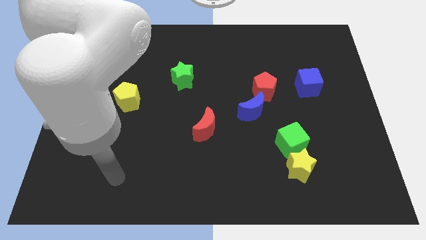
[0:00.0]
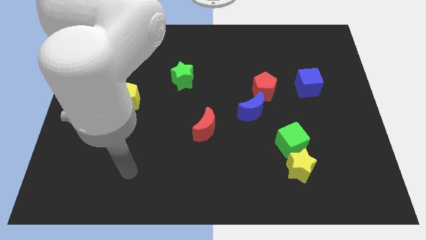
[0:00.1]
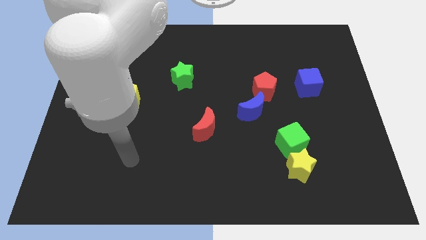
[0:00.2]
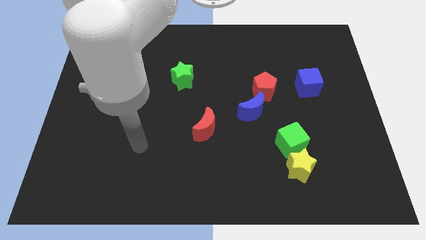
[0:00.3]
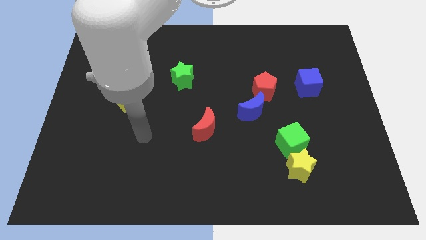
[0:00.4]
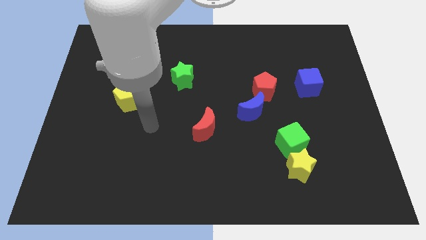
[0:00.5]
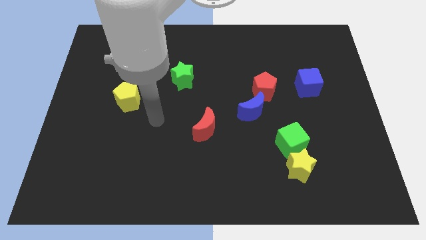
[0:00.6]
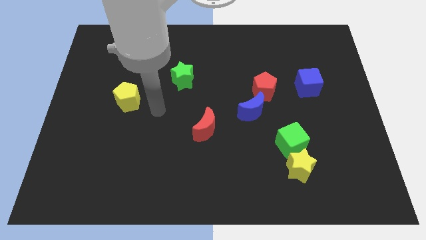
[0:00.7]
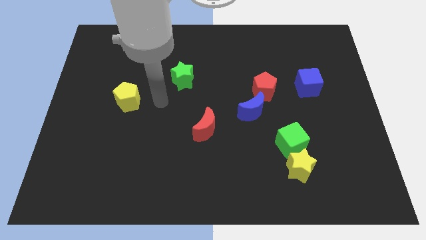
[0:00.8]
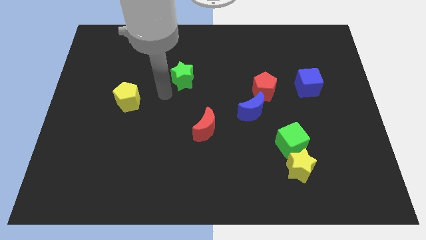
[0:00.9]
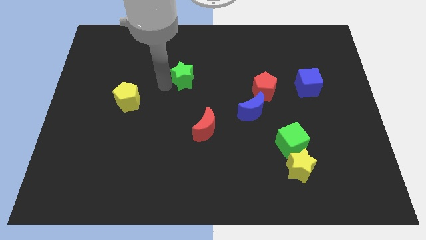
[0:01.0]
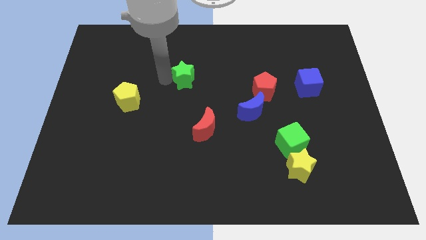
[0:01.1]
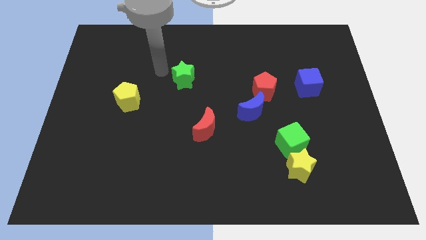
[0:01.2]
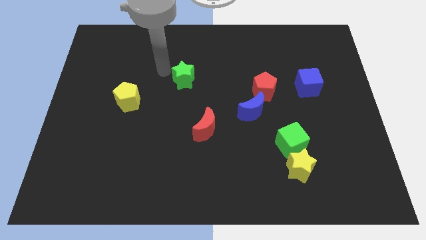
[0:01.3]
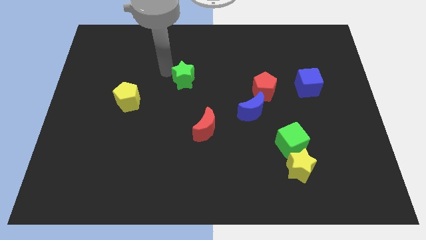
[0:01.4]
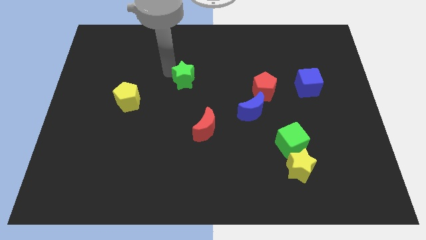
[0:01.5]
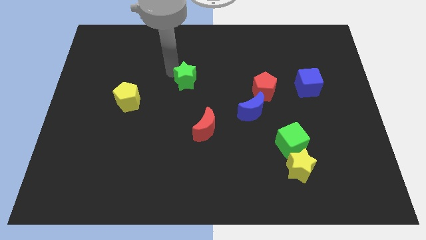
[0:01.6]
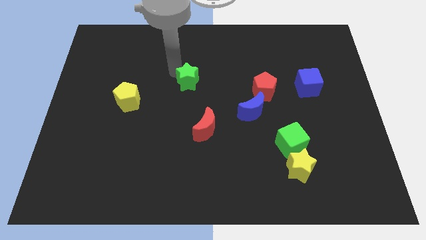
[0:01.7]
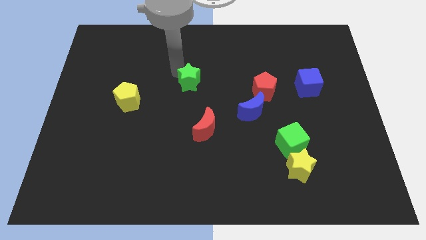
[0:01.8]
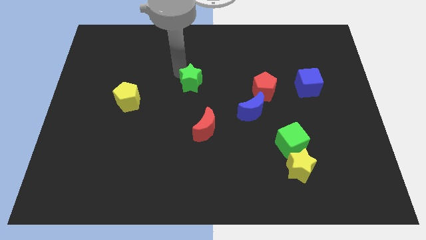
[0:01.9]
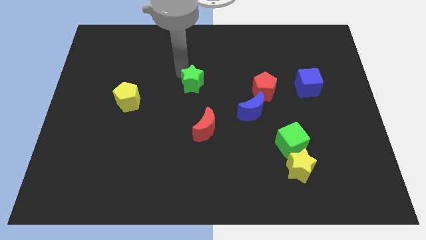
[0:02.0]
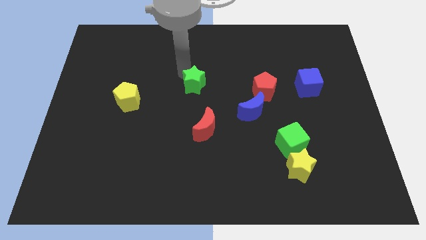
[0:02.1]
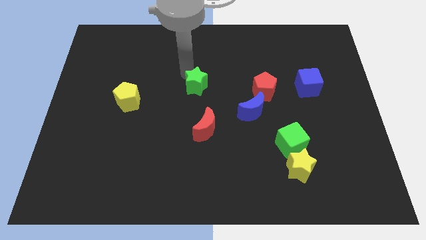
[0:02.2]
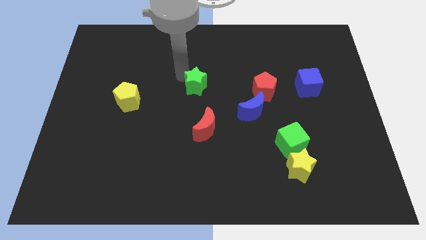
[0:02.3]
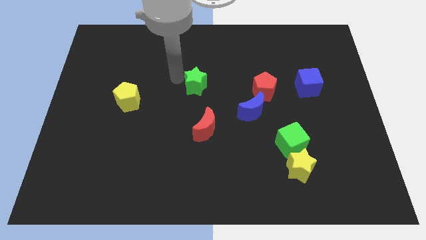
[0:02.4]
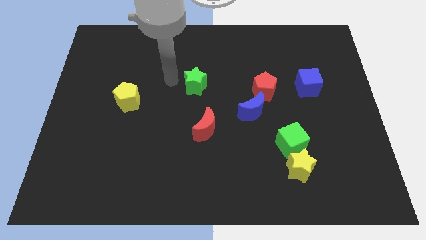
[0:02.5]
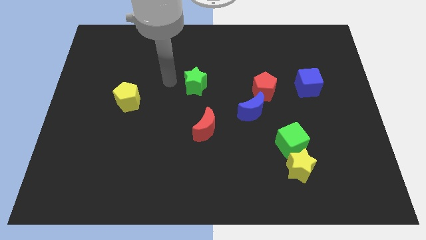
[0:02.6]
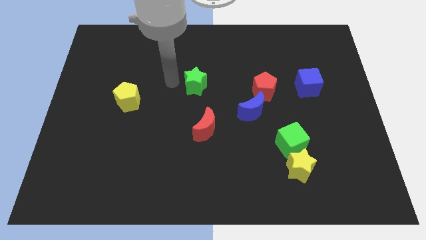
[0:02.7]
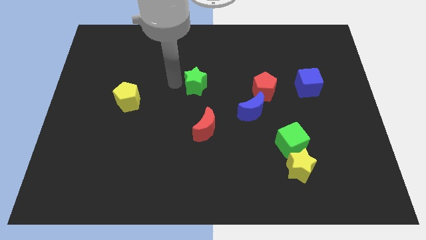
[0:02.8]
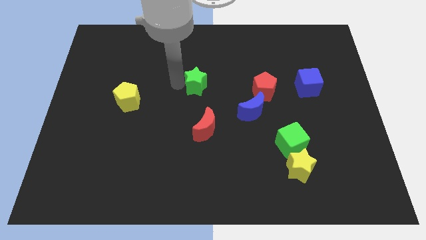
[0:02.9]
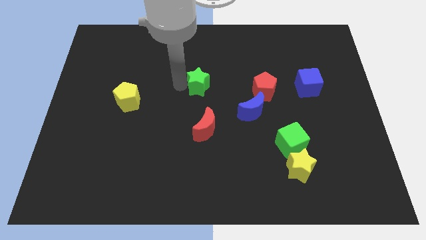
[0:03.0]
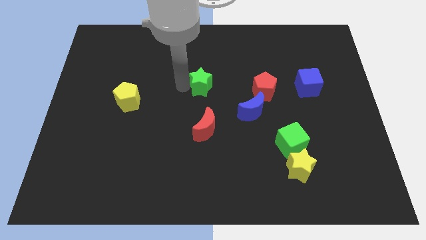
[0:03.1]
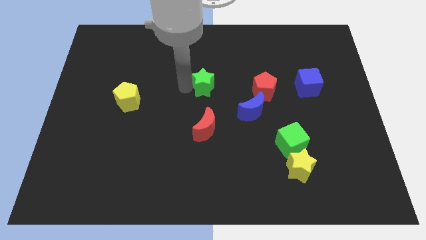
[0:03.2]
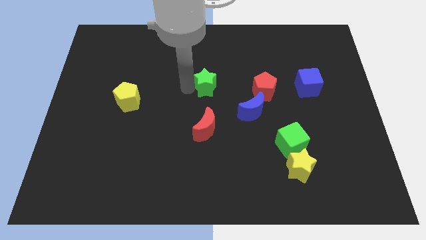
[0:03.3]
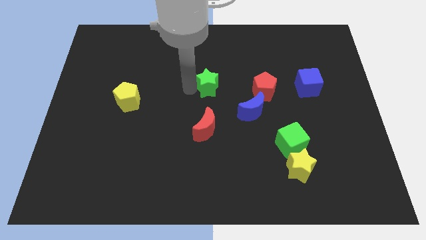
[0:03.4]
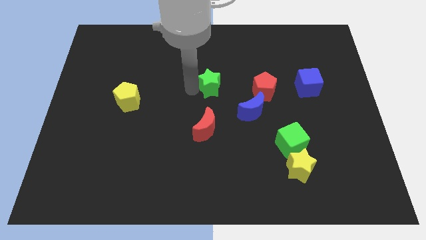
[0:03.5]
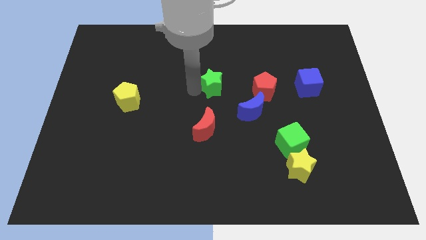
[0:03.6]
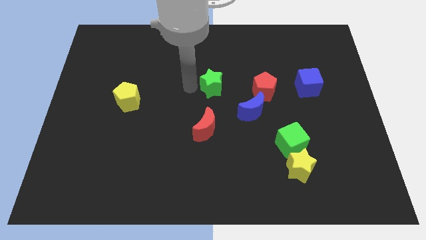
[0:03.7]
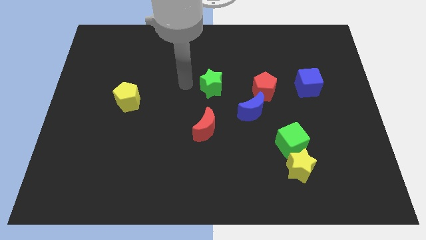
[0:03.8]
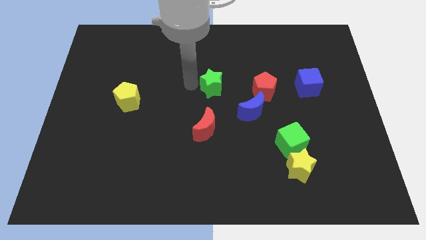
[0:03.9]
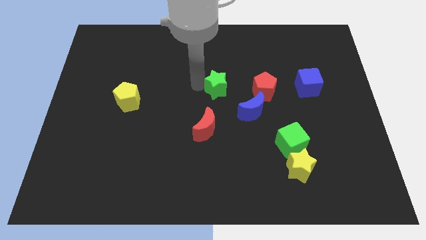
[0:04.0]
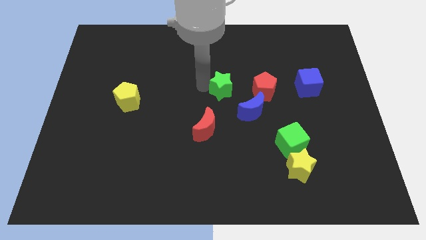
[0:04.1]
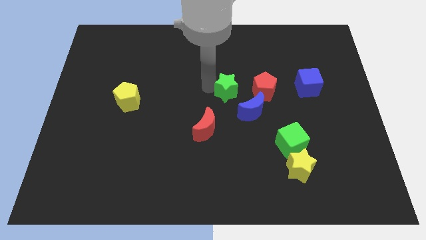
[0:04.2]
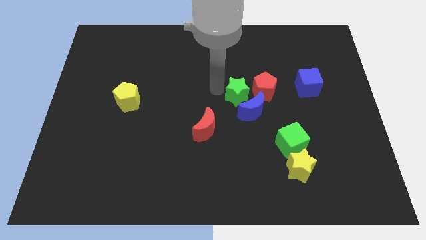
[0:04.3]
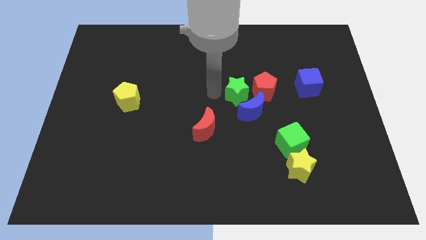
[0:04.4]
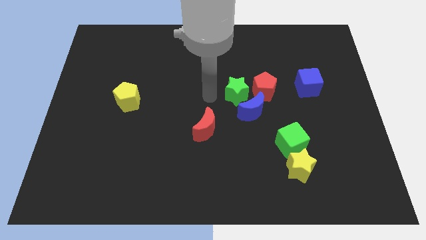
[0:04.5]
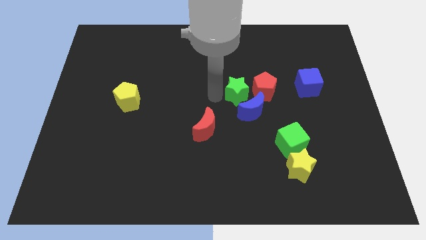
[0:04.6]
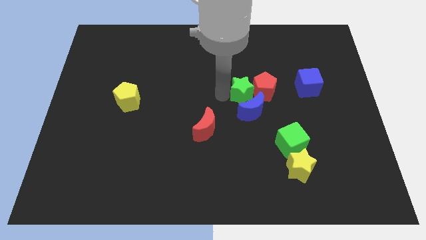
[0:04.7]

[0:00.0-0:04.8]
put the green star close to the red pentagon

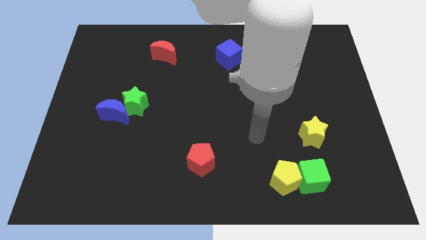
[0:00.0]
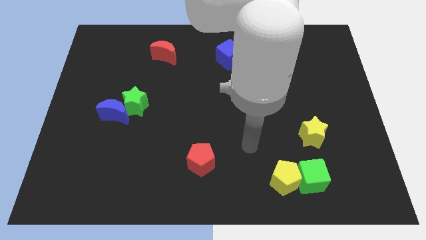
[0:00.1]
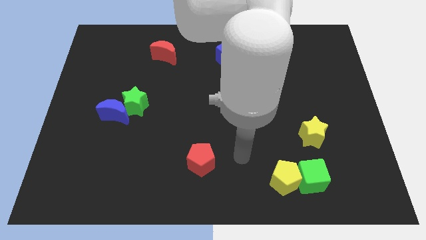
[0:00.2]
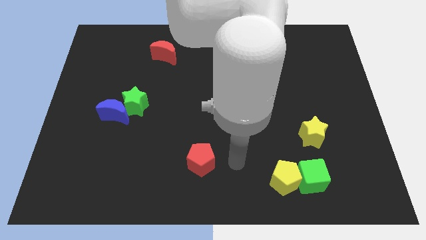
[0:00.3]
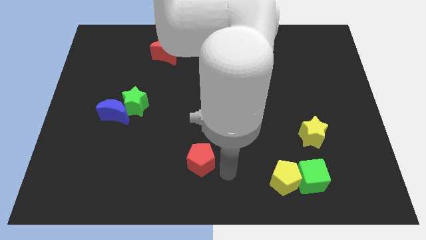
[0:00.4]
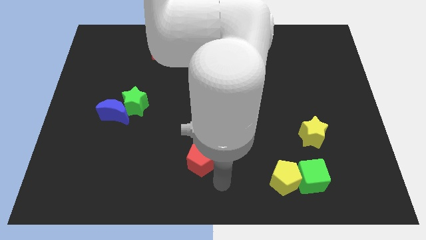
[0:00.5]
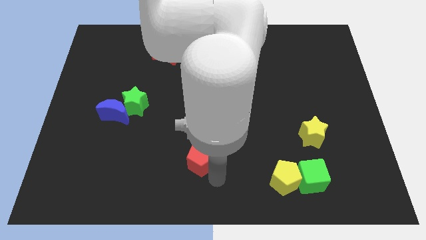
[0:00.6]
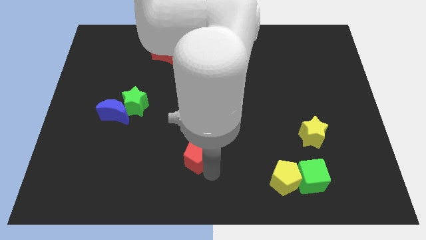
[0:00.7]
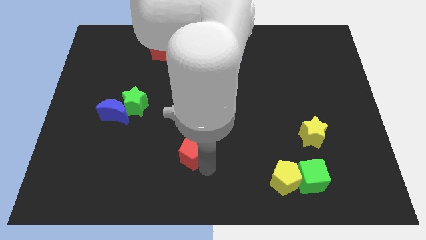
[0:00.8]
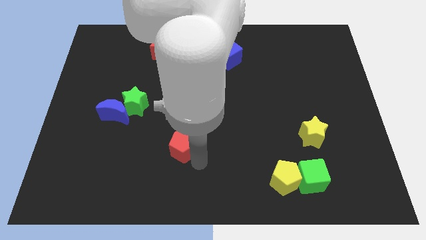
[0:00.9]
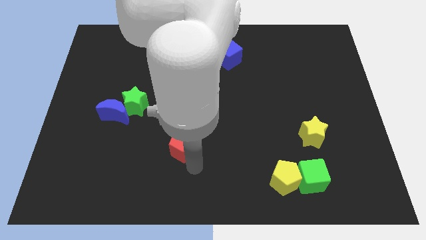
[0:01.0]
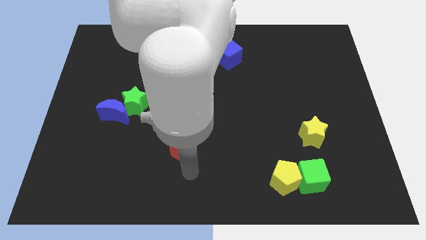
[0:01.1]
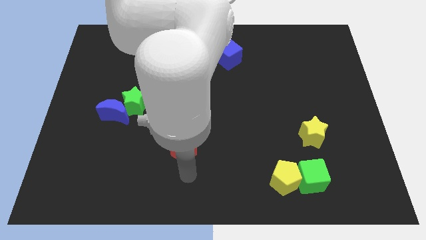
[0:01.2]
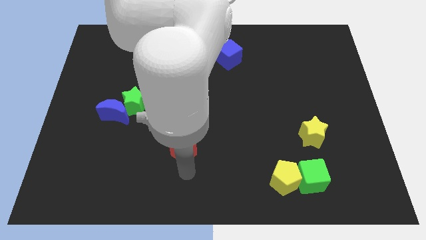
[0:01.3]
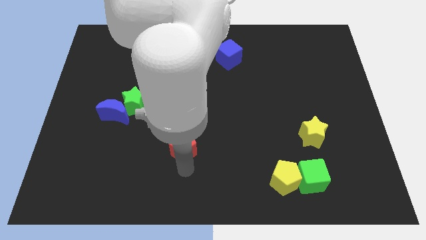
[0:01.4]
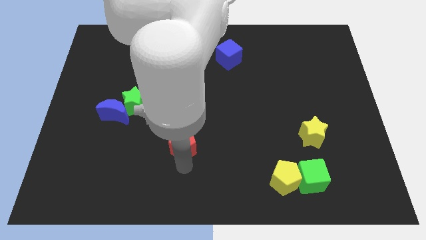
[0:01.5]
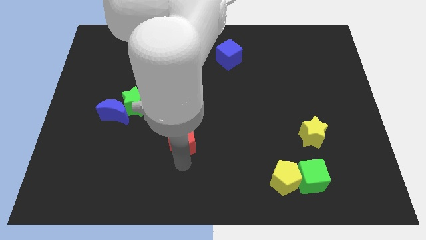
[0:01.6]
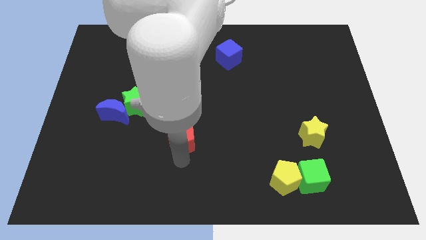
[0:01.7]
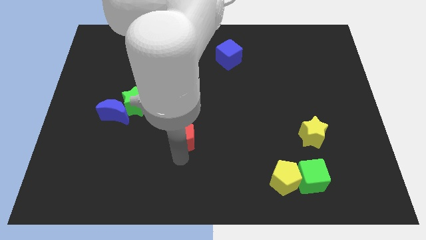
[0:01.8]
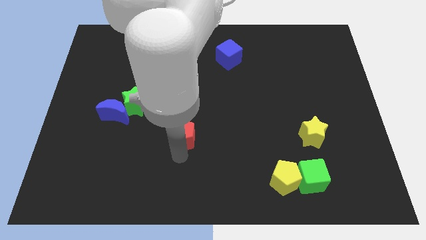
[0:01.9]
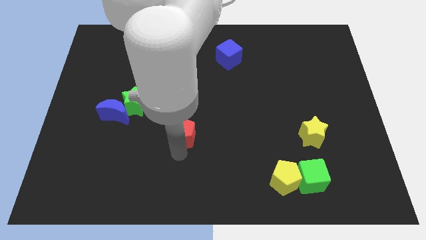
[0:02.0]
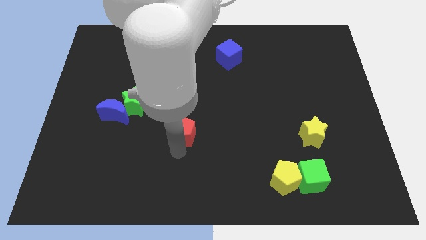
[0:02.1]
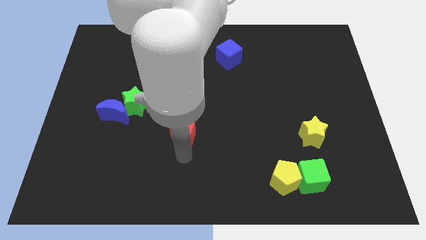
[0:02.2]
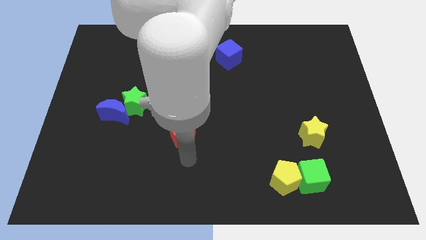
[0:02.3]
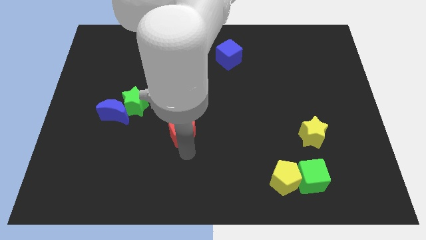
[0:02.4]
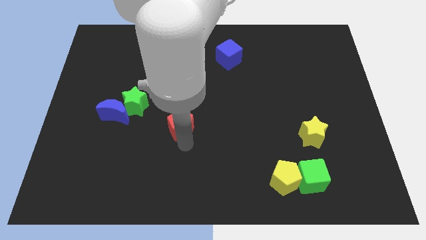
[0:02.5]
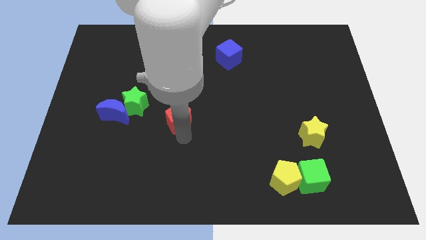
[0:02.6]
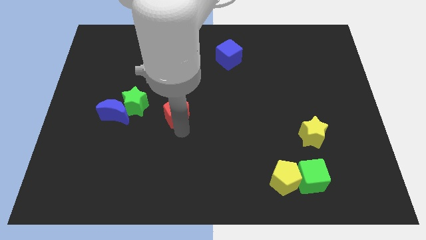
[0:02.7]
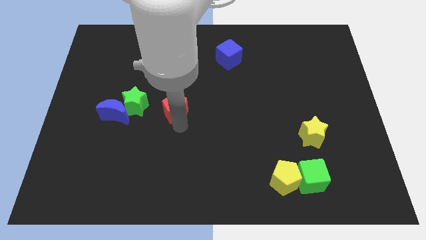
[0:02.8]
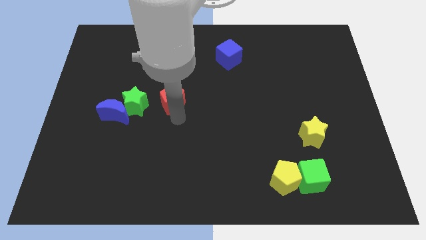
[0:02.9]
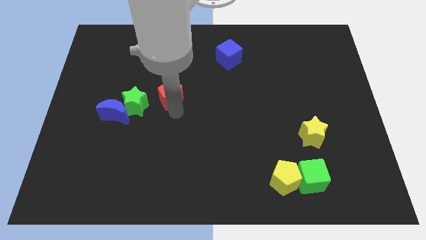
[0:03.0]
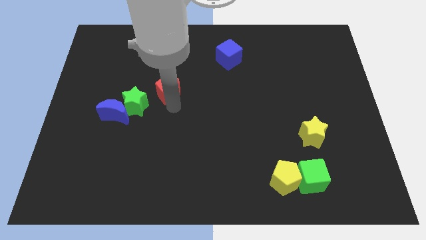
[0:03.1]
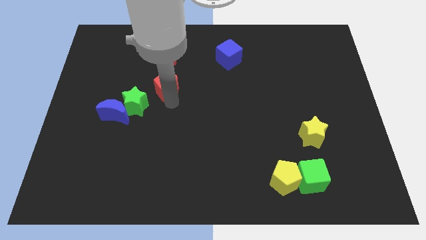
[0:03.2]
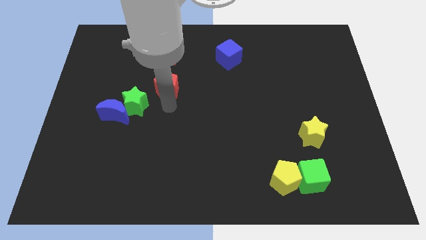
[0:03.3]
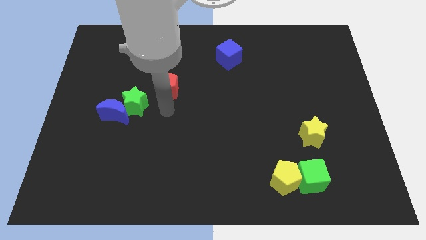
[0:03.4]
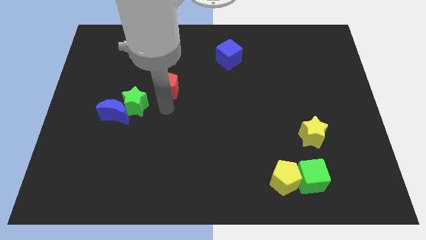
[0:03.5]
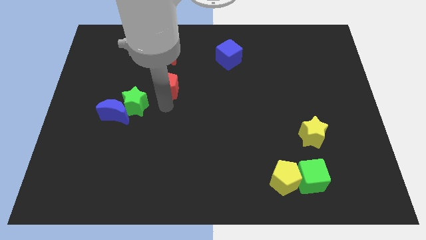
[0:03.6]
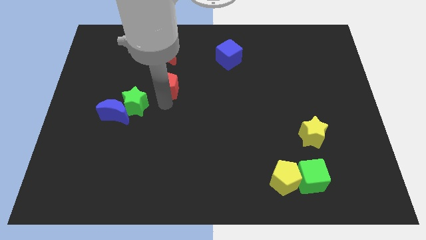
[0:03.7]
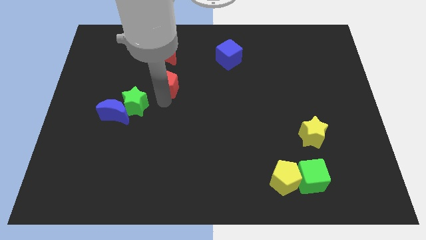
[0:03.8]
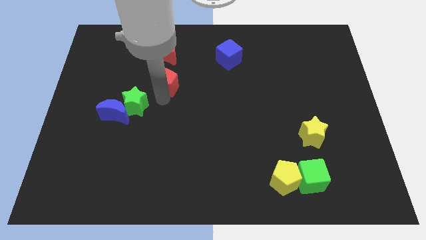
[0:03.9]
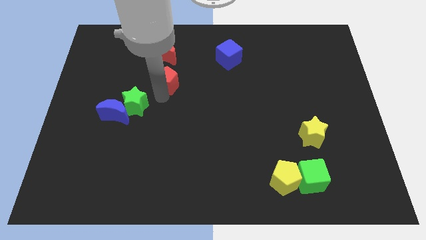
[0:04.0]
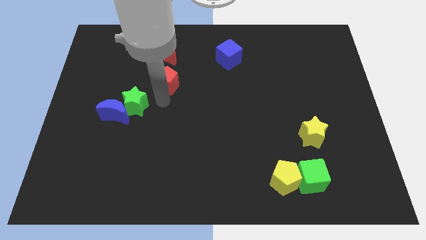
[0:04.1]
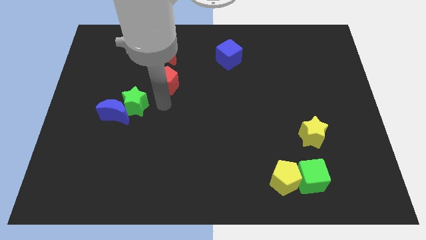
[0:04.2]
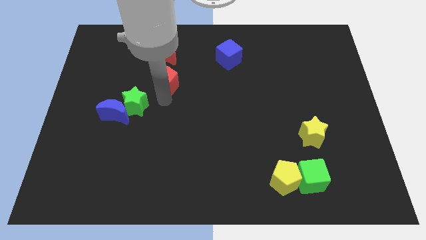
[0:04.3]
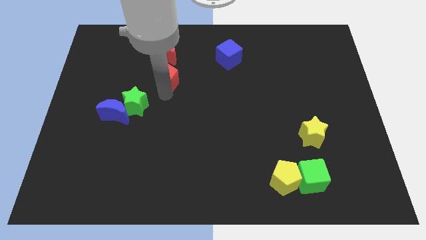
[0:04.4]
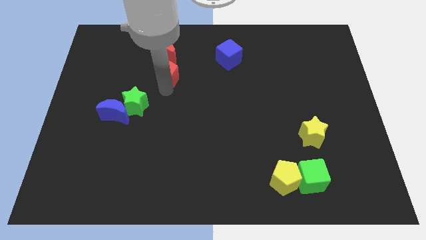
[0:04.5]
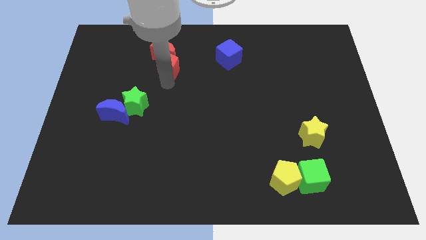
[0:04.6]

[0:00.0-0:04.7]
move the red pentagon close to the red moon
